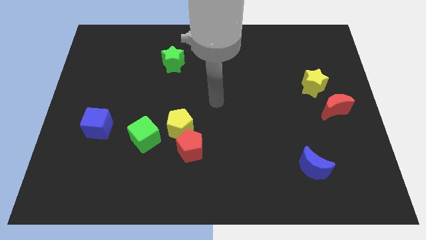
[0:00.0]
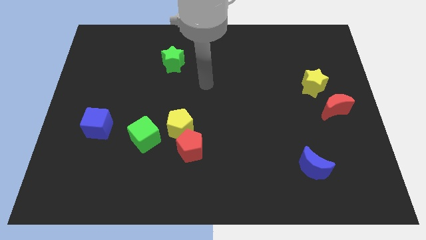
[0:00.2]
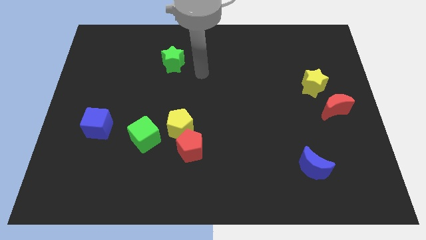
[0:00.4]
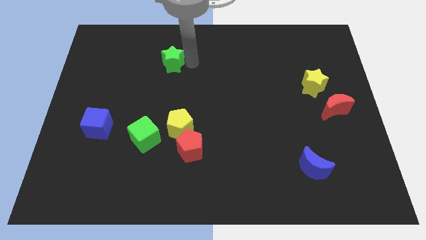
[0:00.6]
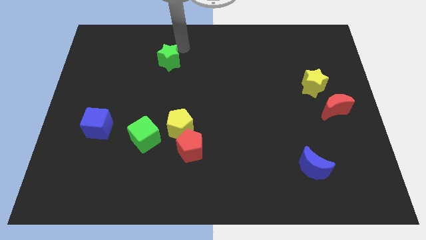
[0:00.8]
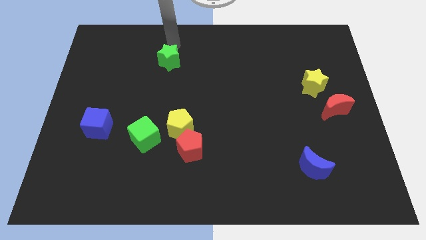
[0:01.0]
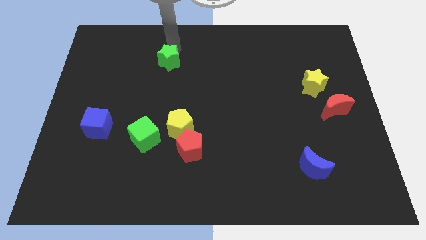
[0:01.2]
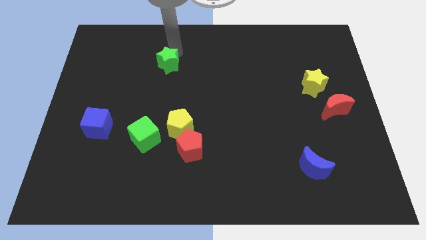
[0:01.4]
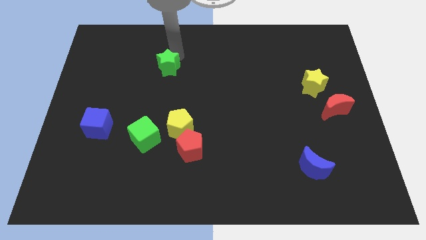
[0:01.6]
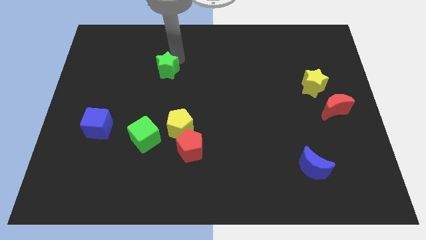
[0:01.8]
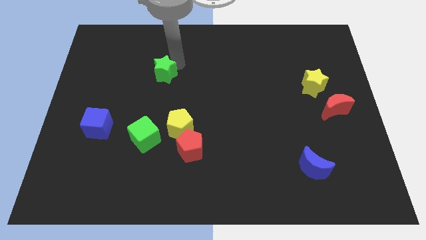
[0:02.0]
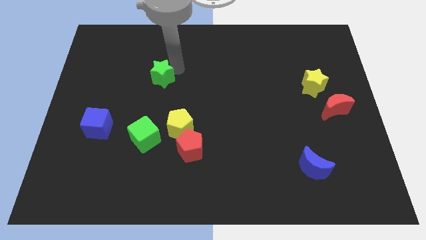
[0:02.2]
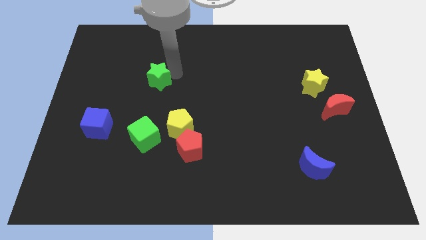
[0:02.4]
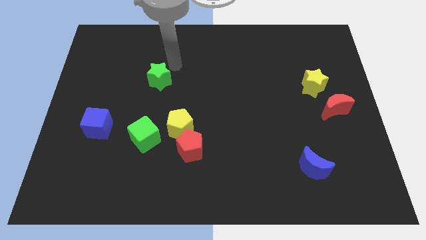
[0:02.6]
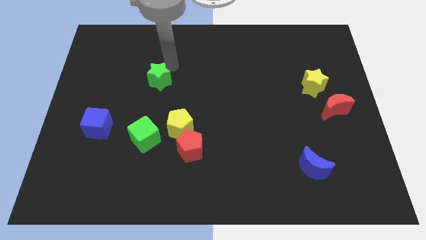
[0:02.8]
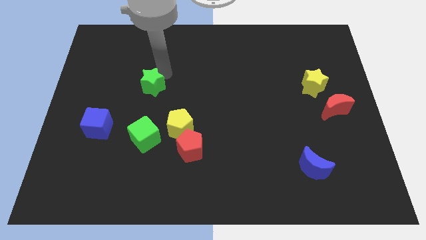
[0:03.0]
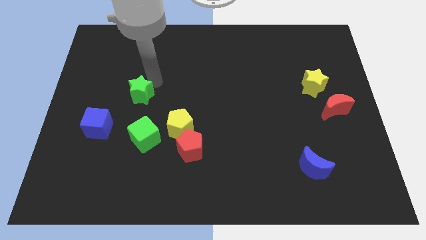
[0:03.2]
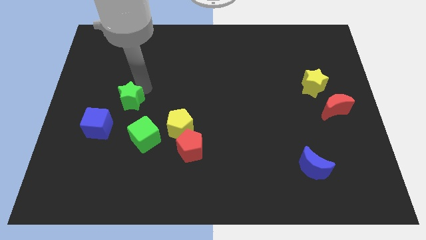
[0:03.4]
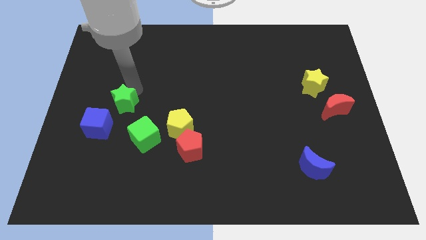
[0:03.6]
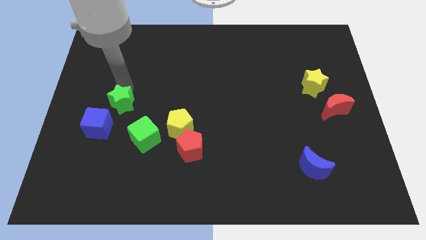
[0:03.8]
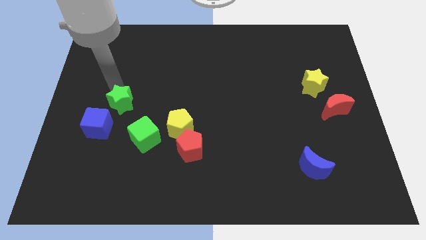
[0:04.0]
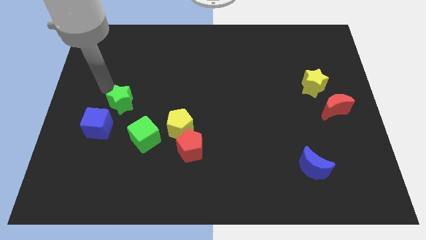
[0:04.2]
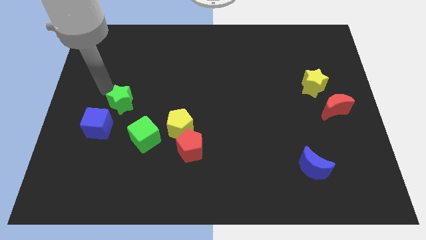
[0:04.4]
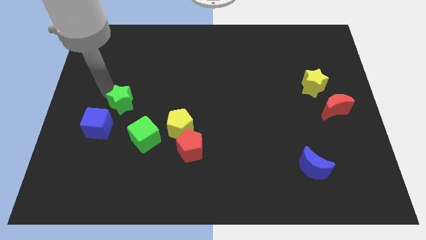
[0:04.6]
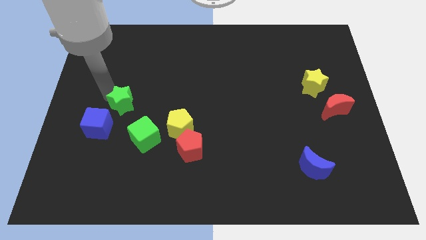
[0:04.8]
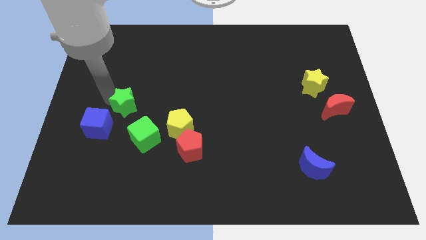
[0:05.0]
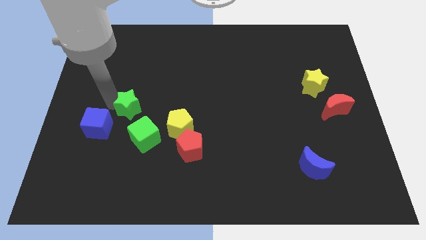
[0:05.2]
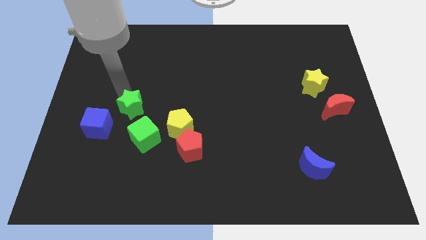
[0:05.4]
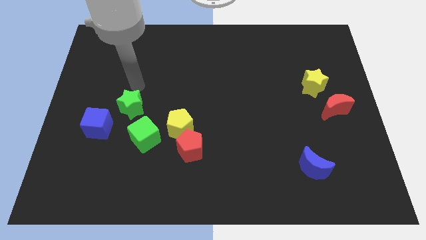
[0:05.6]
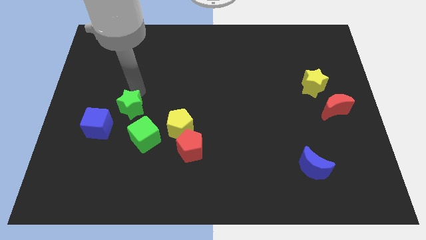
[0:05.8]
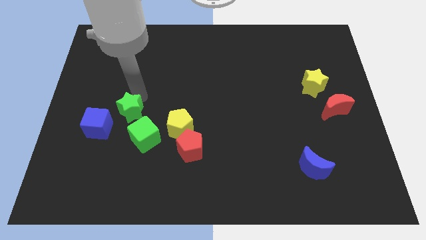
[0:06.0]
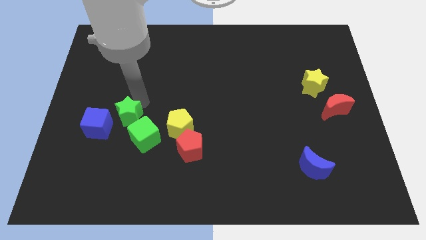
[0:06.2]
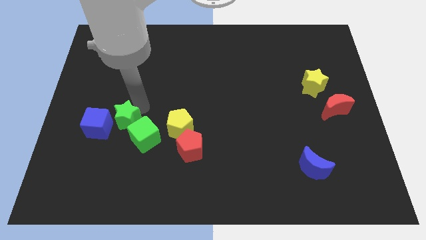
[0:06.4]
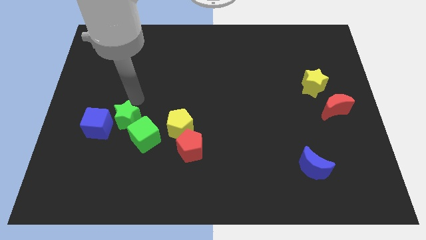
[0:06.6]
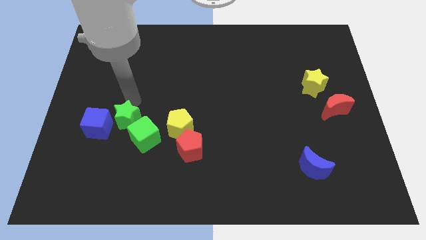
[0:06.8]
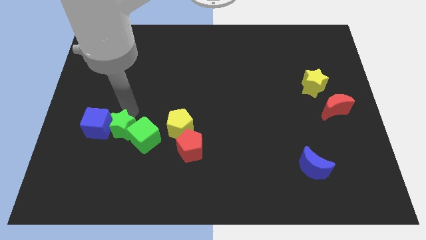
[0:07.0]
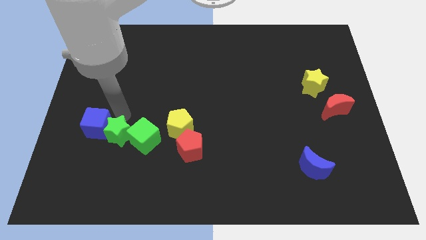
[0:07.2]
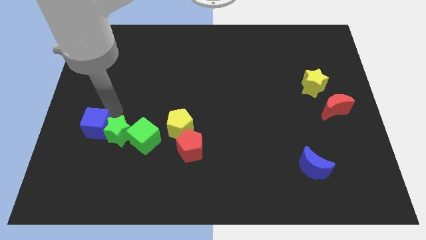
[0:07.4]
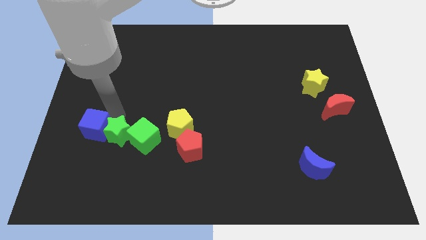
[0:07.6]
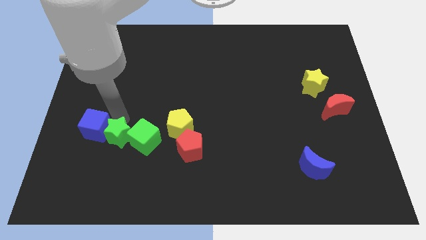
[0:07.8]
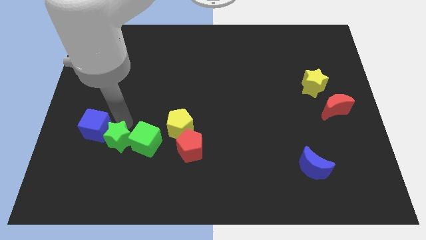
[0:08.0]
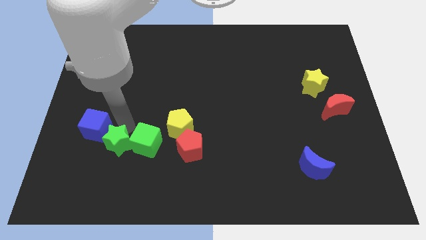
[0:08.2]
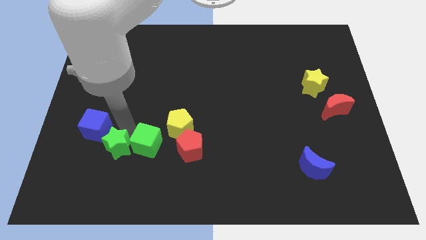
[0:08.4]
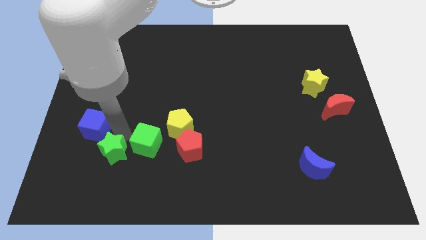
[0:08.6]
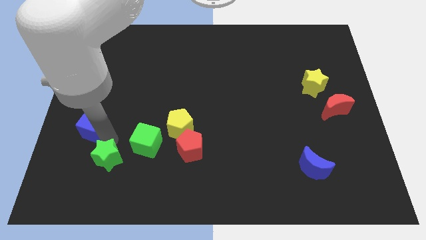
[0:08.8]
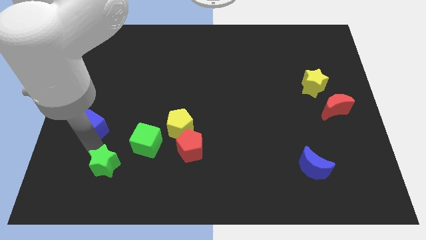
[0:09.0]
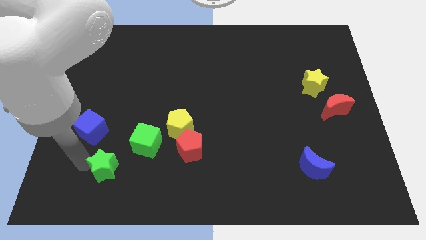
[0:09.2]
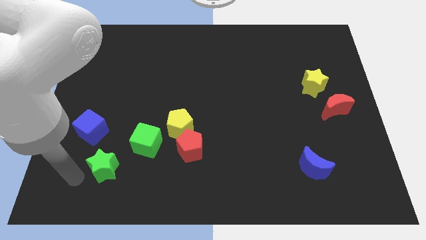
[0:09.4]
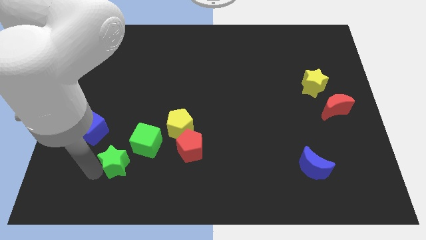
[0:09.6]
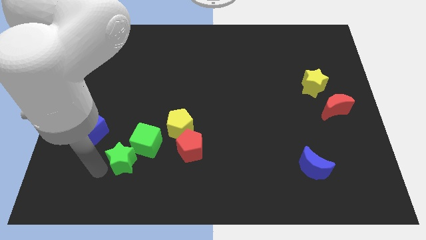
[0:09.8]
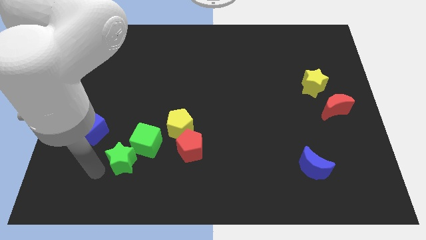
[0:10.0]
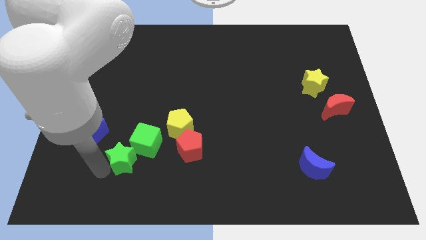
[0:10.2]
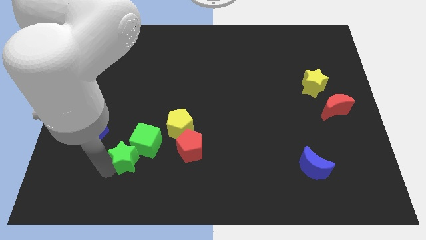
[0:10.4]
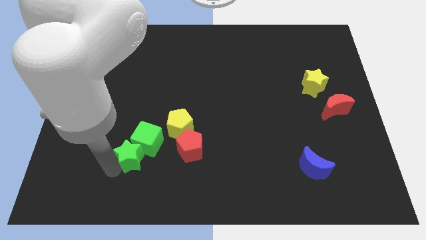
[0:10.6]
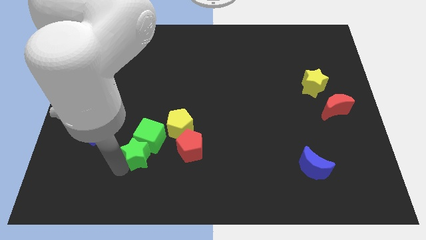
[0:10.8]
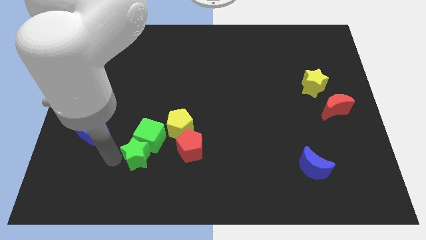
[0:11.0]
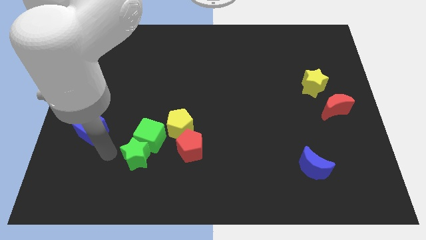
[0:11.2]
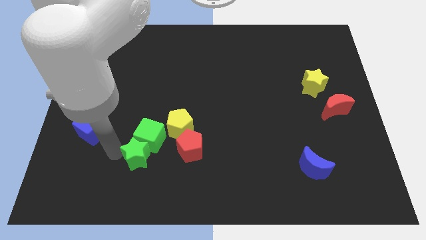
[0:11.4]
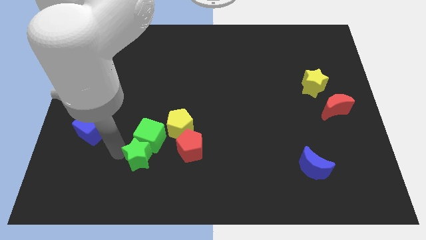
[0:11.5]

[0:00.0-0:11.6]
put the green star to the bottom right side of the green cube

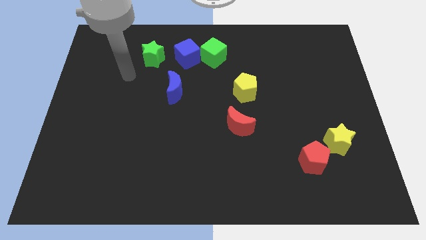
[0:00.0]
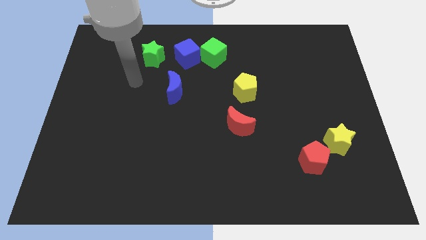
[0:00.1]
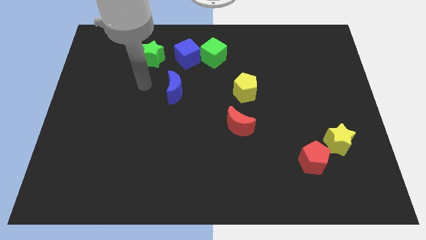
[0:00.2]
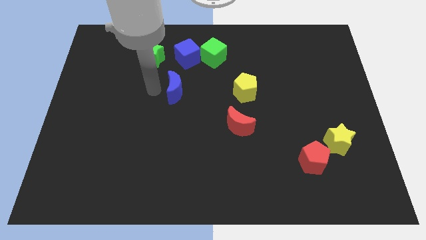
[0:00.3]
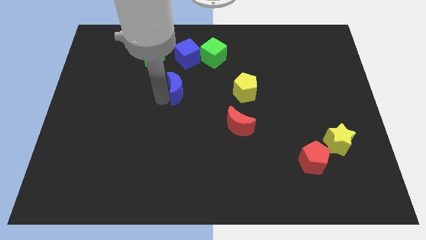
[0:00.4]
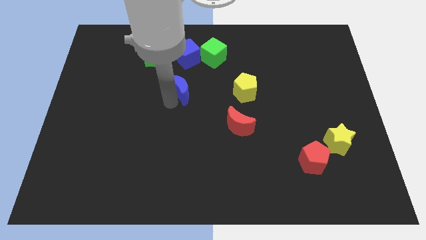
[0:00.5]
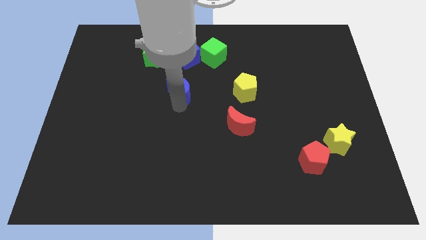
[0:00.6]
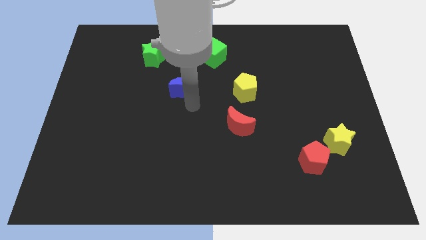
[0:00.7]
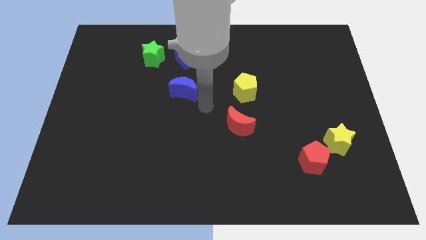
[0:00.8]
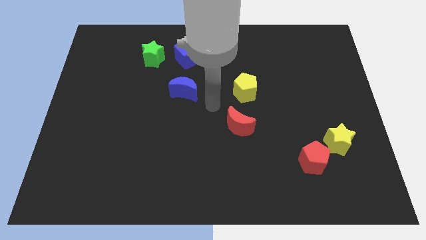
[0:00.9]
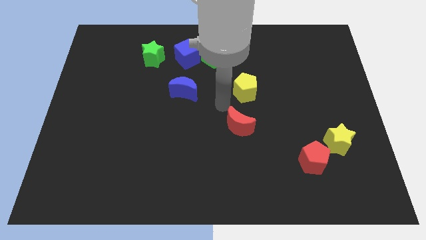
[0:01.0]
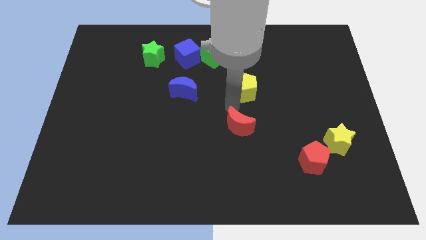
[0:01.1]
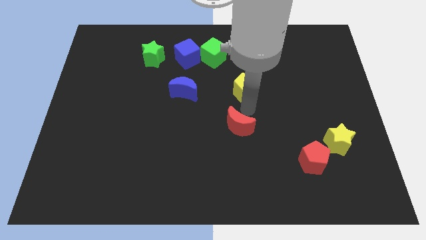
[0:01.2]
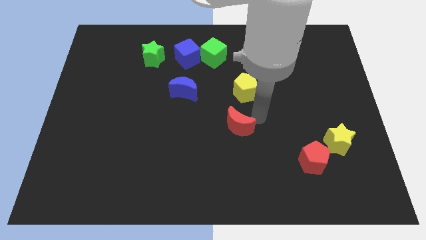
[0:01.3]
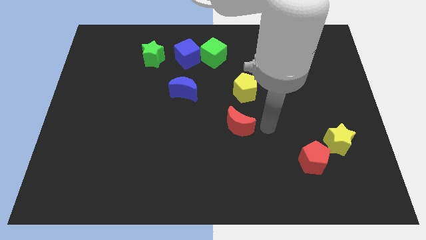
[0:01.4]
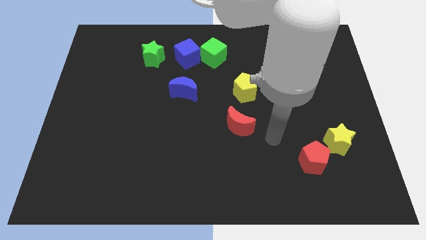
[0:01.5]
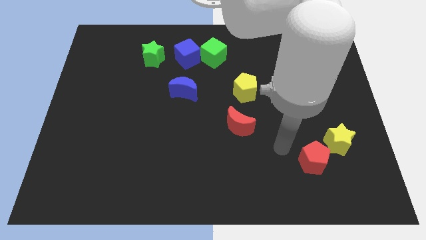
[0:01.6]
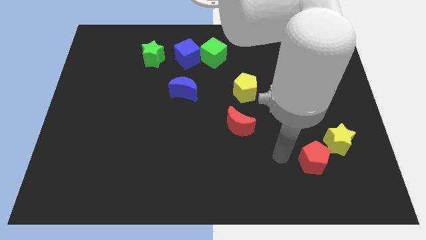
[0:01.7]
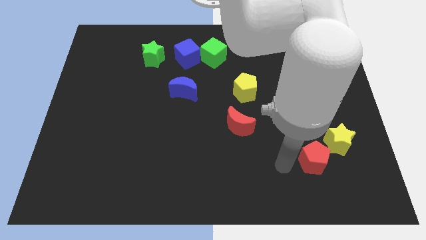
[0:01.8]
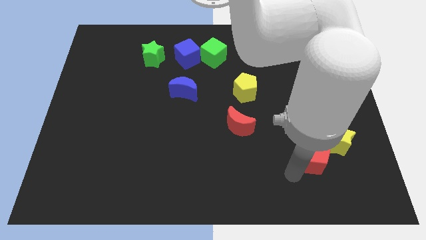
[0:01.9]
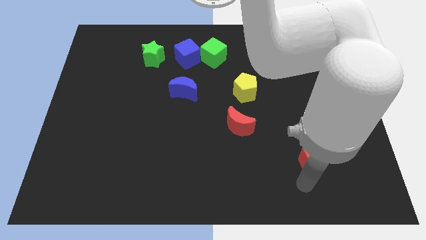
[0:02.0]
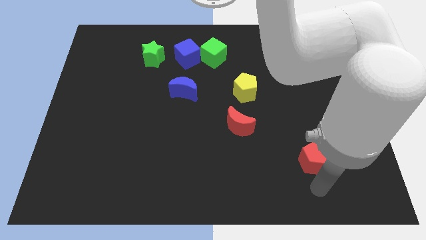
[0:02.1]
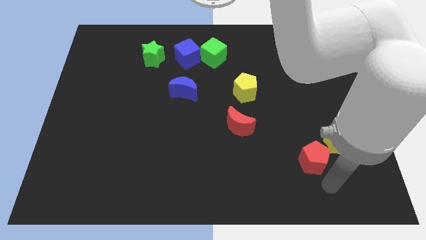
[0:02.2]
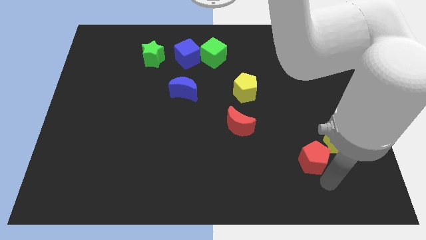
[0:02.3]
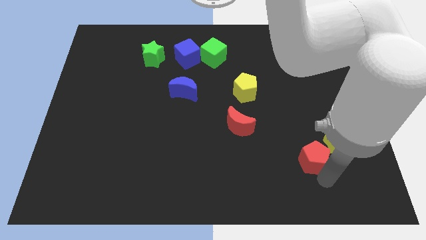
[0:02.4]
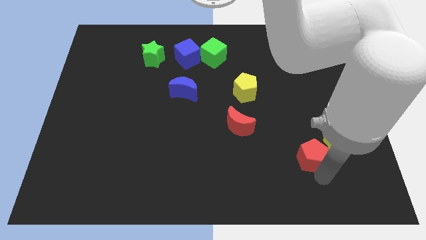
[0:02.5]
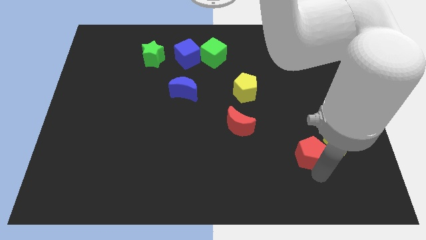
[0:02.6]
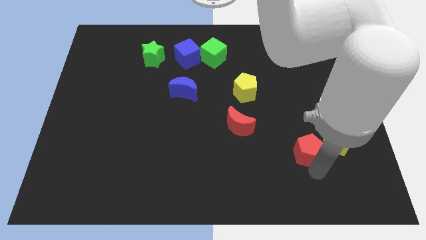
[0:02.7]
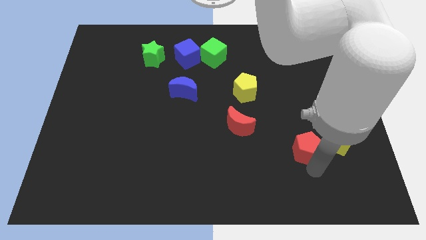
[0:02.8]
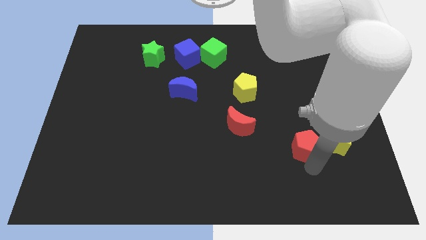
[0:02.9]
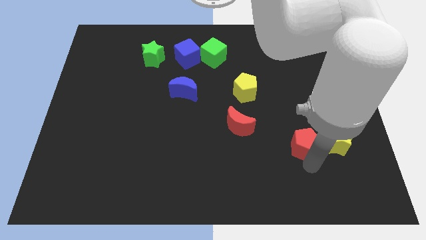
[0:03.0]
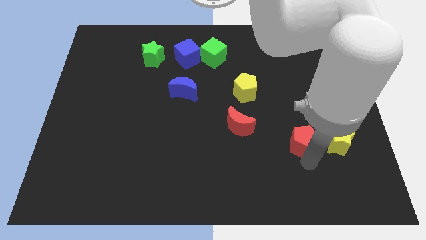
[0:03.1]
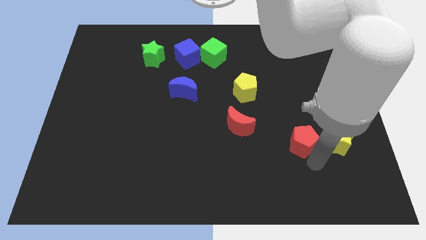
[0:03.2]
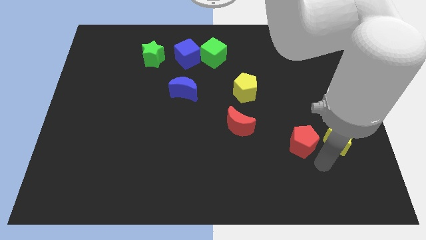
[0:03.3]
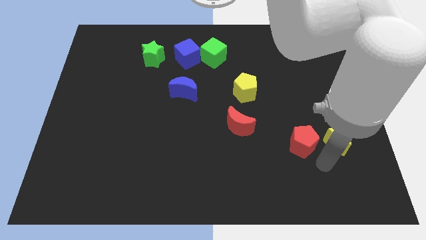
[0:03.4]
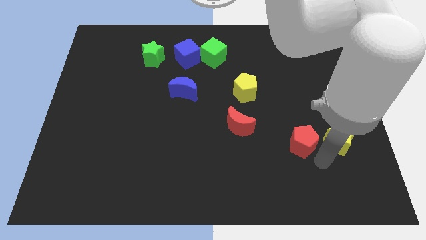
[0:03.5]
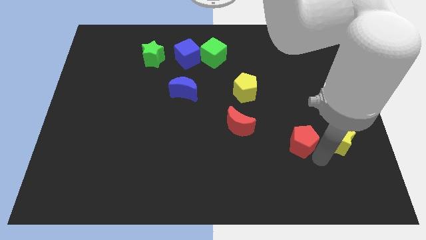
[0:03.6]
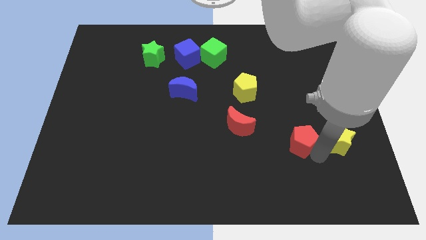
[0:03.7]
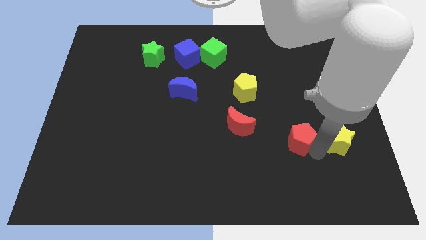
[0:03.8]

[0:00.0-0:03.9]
push the red pentagon right of the red moon
